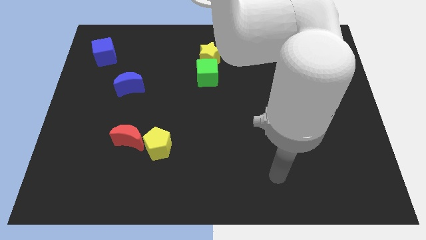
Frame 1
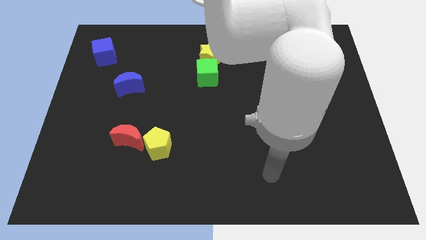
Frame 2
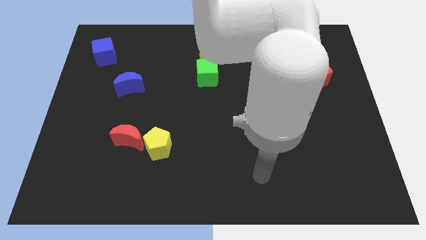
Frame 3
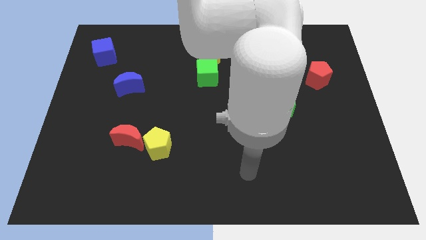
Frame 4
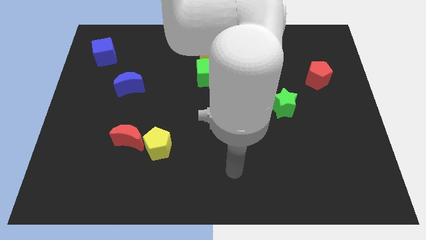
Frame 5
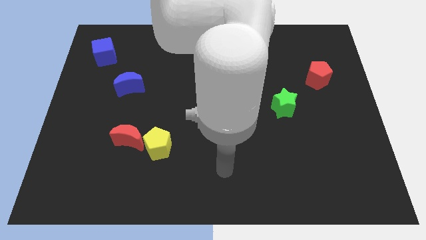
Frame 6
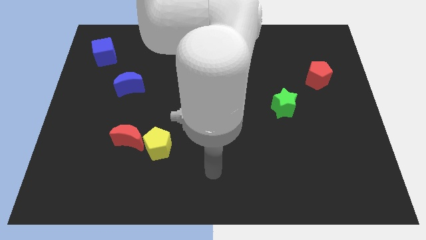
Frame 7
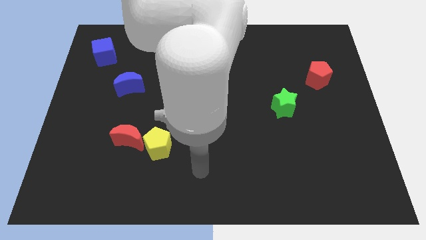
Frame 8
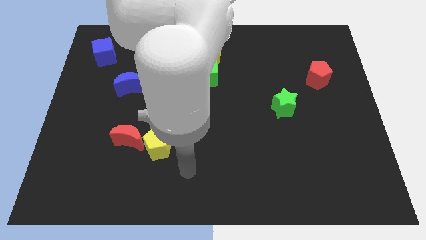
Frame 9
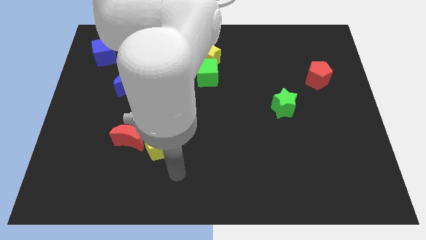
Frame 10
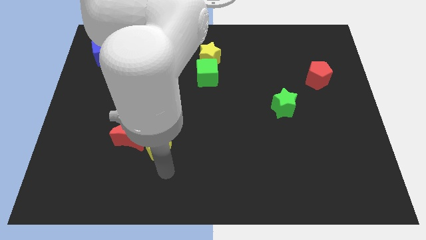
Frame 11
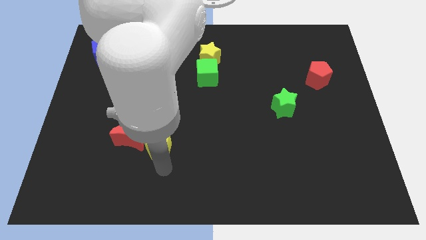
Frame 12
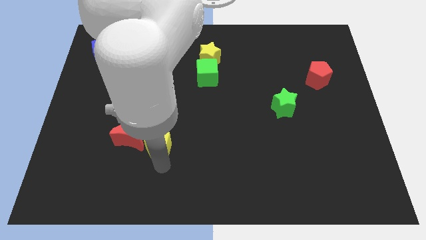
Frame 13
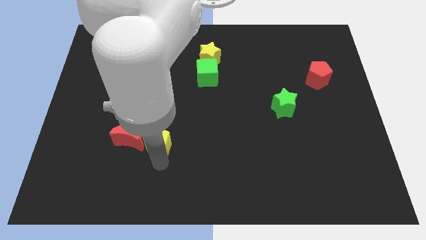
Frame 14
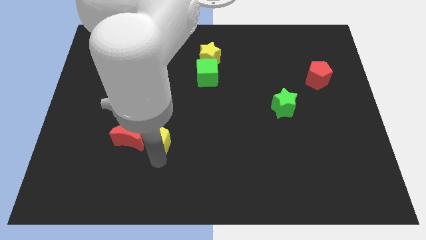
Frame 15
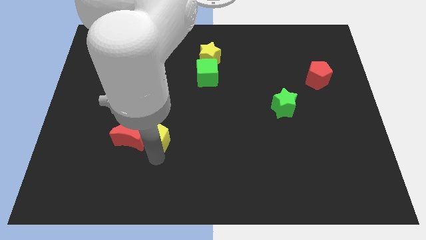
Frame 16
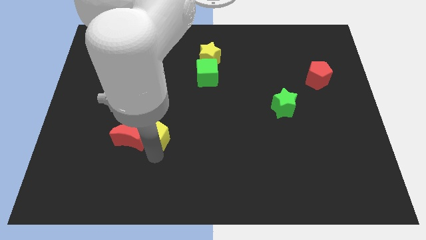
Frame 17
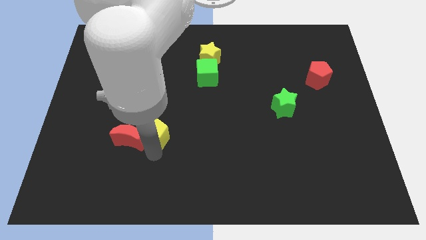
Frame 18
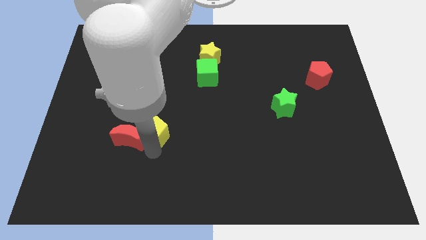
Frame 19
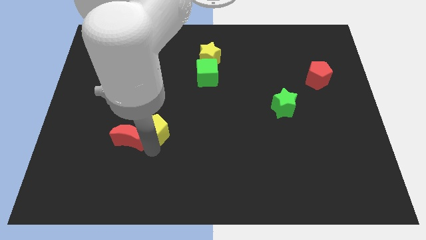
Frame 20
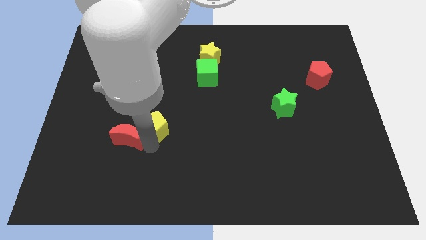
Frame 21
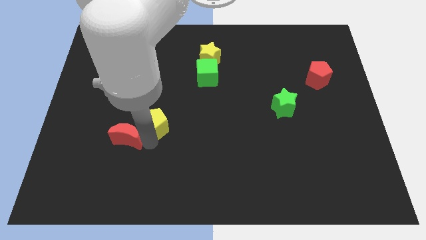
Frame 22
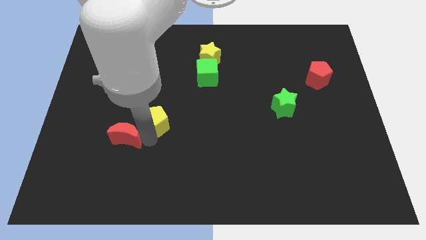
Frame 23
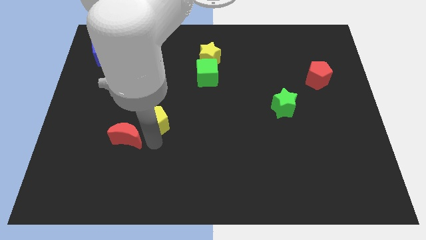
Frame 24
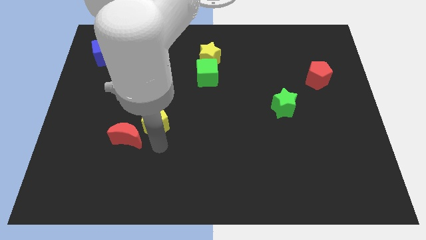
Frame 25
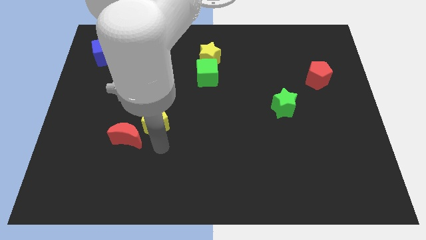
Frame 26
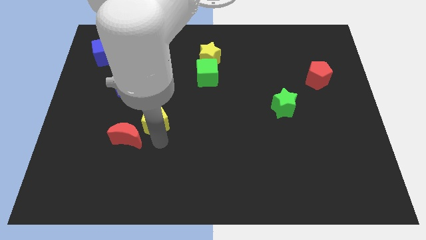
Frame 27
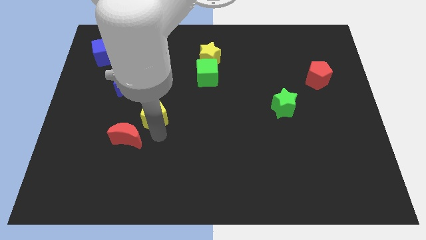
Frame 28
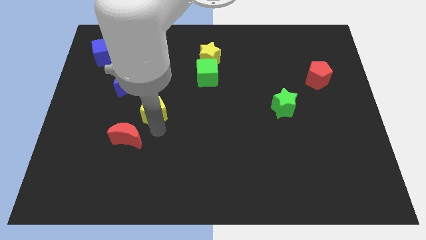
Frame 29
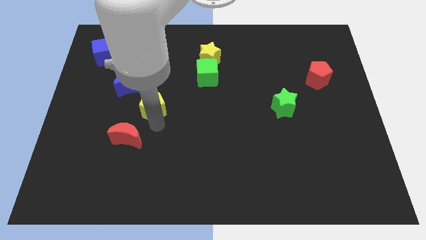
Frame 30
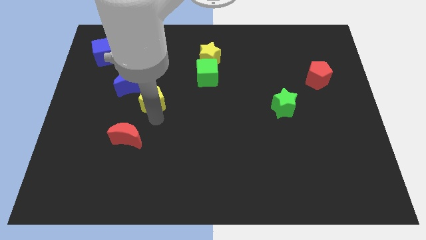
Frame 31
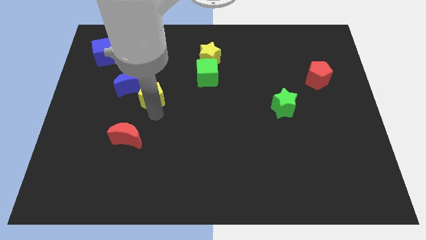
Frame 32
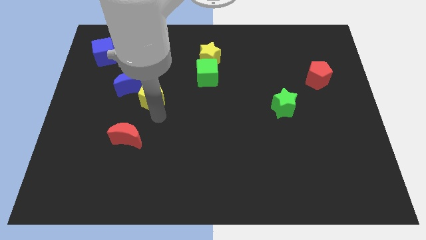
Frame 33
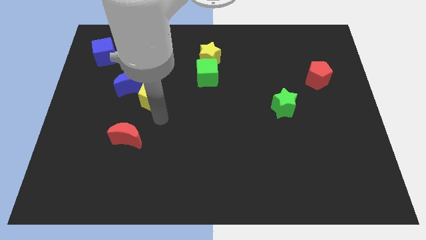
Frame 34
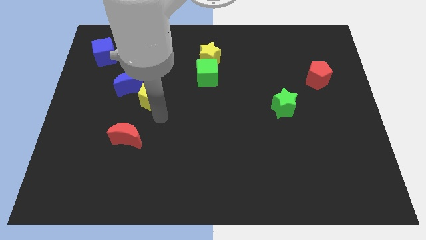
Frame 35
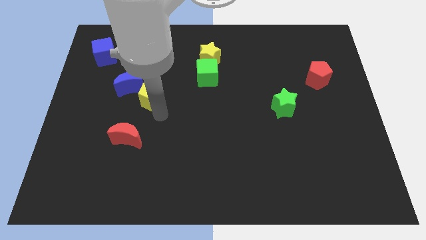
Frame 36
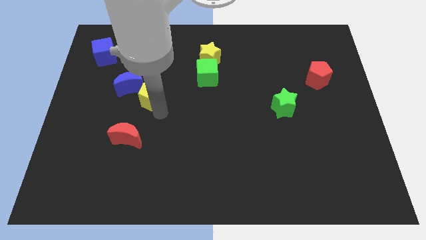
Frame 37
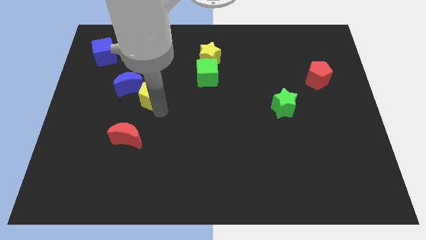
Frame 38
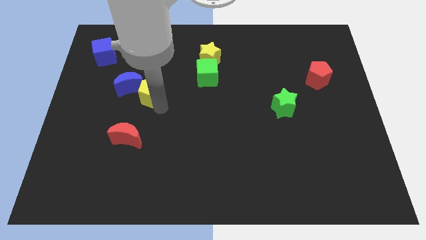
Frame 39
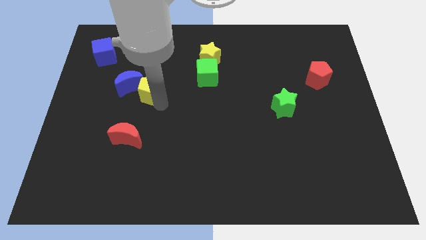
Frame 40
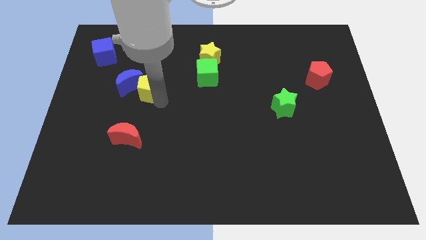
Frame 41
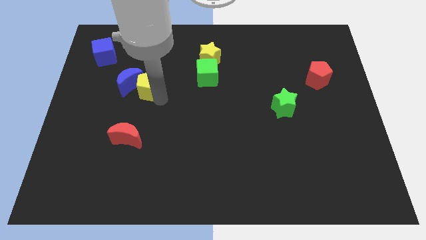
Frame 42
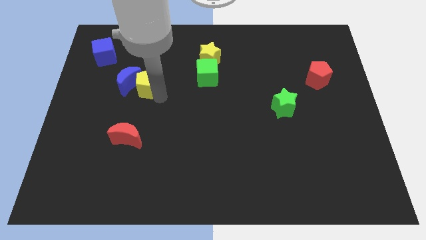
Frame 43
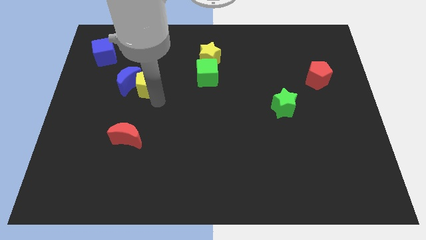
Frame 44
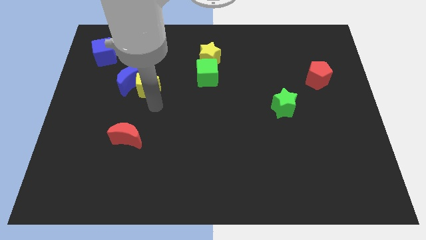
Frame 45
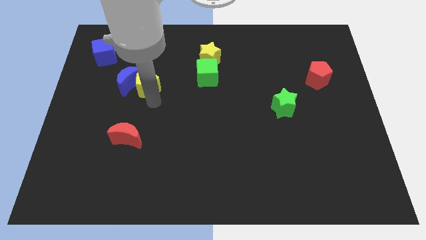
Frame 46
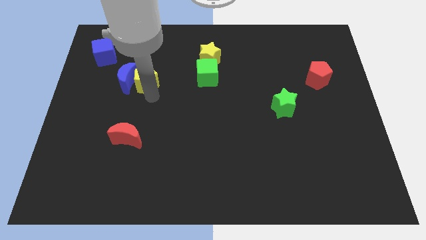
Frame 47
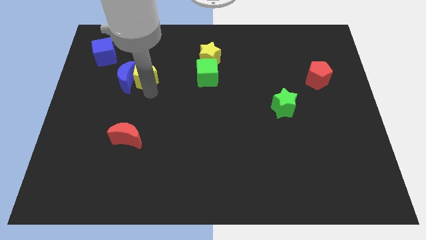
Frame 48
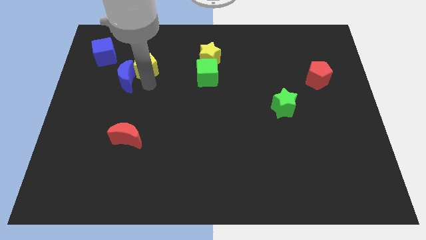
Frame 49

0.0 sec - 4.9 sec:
move the yellow pentagon to the top of the blue moon

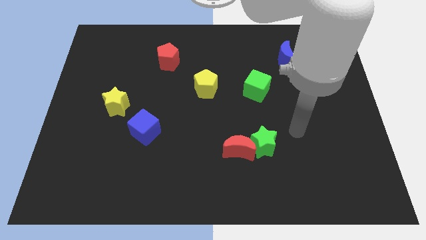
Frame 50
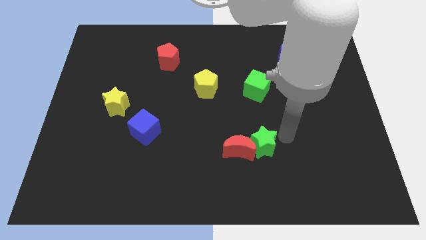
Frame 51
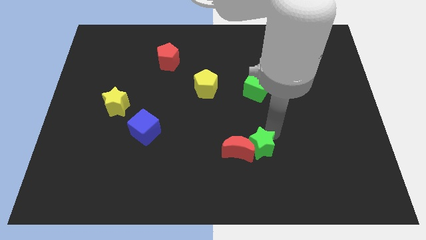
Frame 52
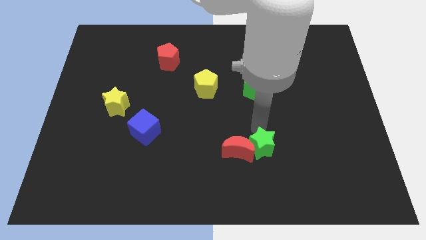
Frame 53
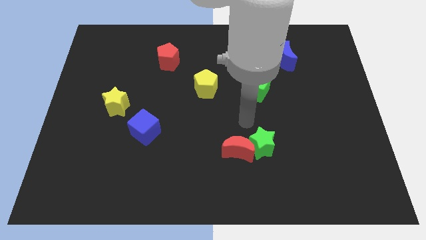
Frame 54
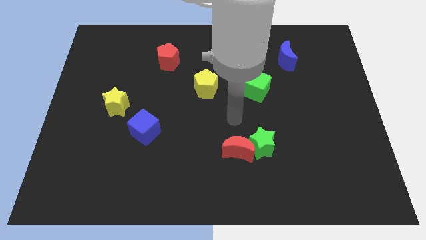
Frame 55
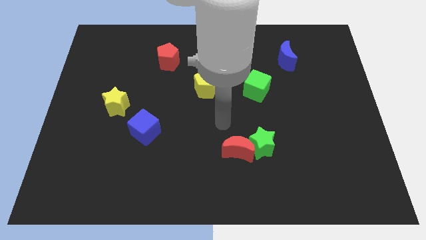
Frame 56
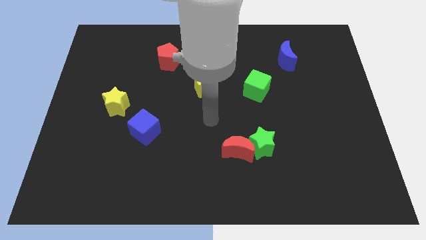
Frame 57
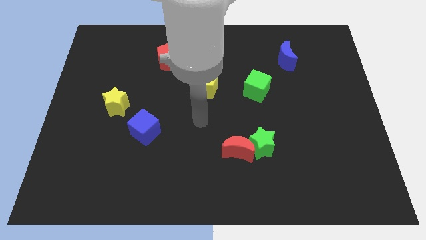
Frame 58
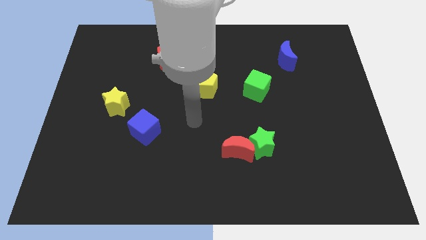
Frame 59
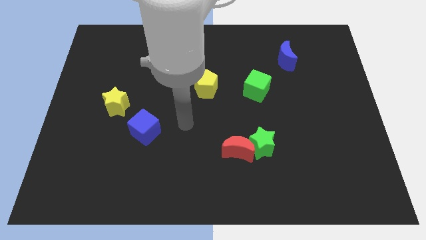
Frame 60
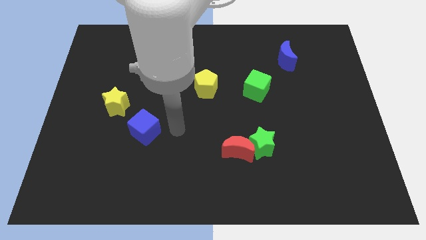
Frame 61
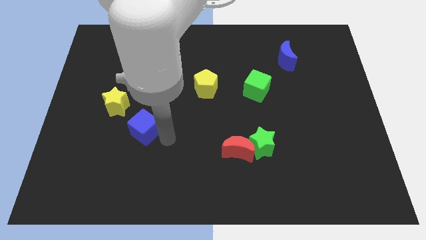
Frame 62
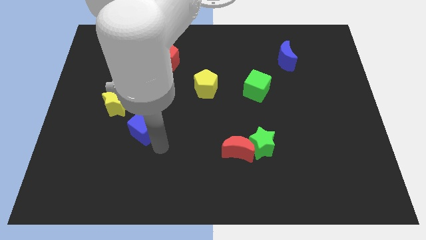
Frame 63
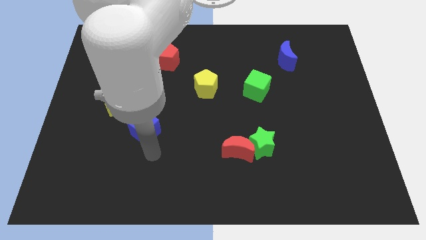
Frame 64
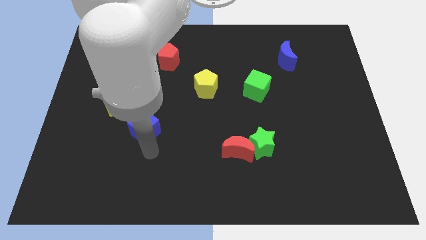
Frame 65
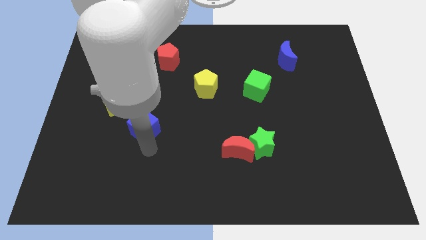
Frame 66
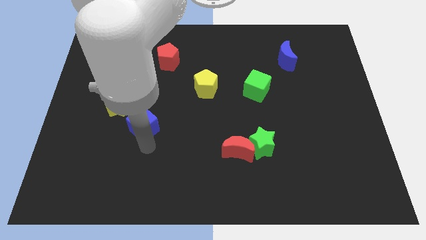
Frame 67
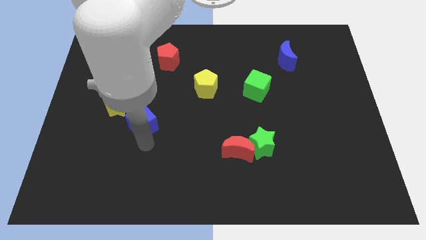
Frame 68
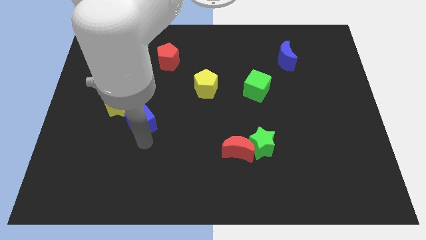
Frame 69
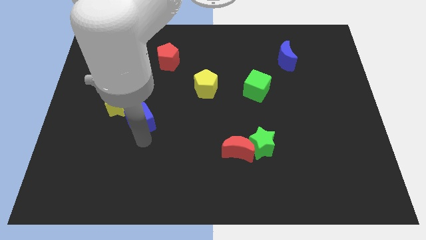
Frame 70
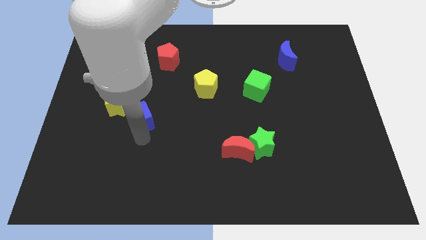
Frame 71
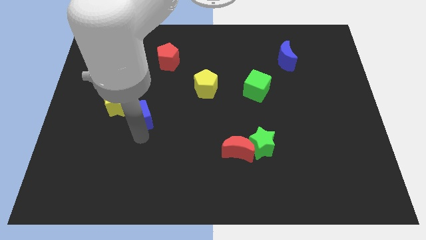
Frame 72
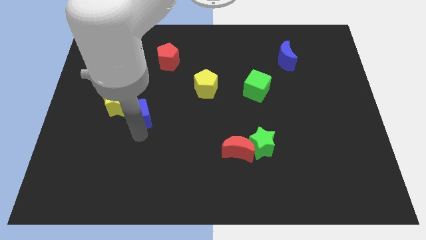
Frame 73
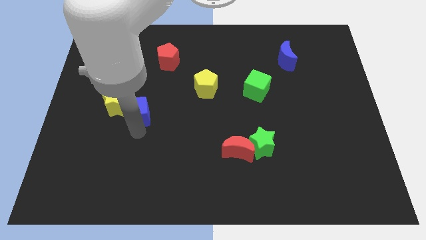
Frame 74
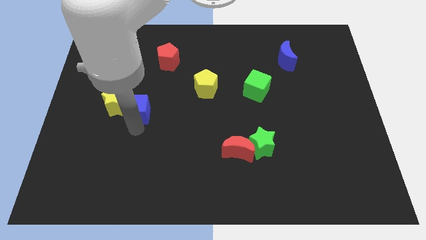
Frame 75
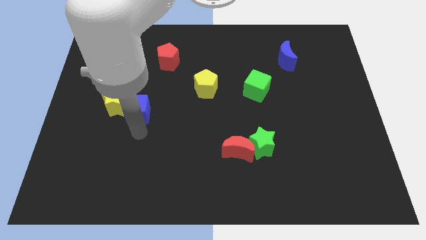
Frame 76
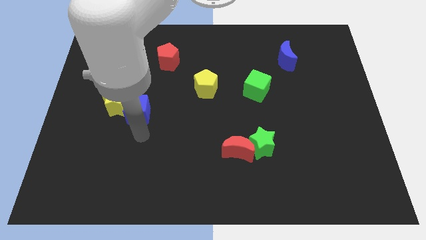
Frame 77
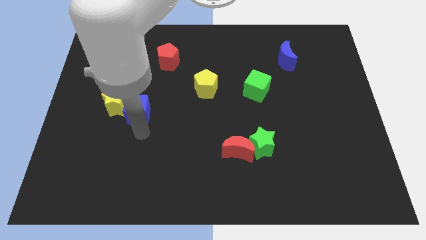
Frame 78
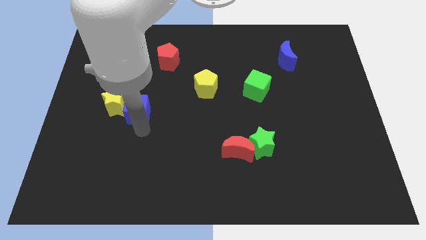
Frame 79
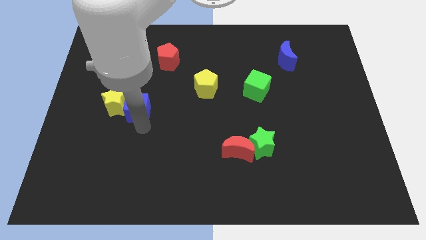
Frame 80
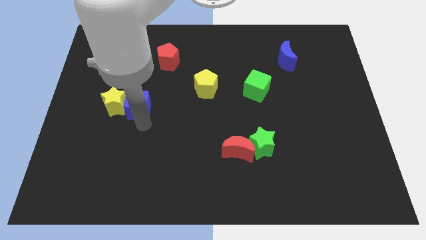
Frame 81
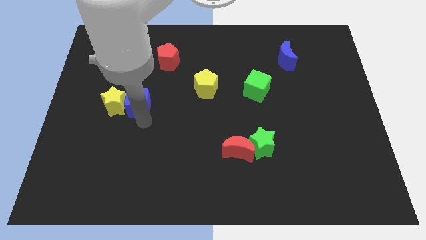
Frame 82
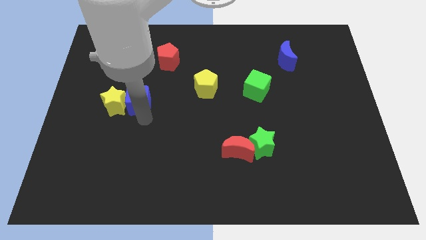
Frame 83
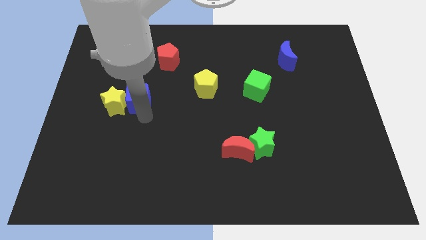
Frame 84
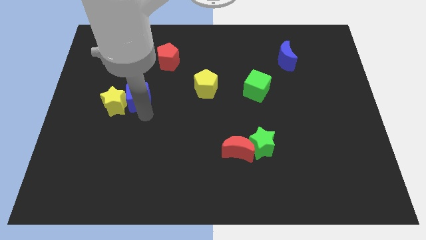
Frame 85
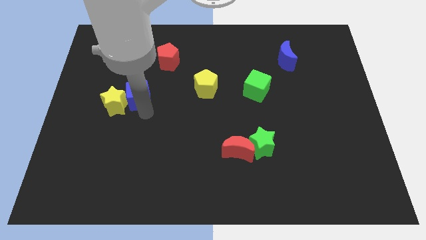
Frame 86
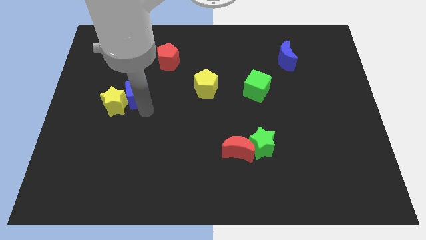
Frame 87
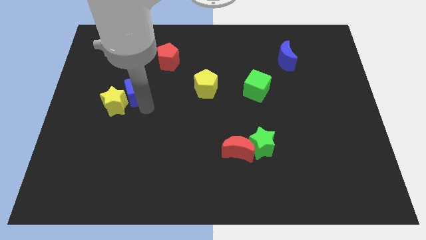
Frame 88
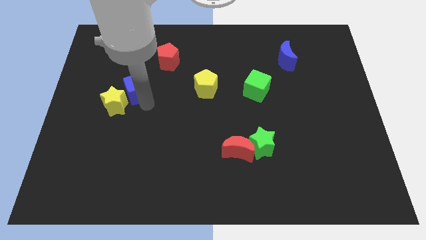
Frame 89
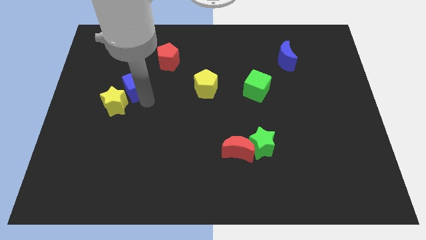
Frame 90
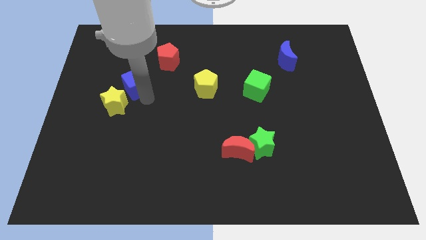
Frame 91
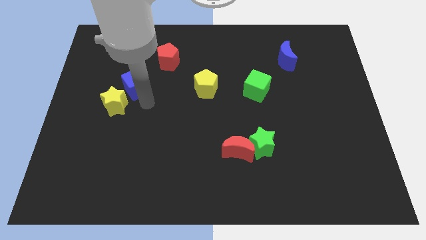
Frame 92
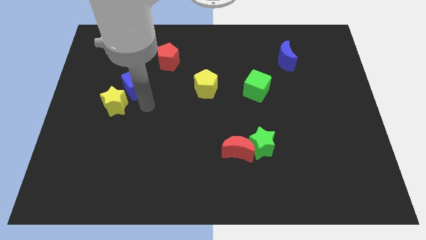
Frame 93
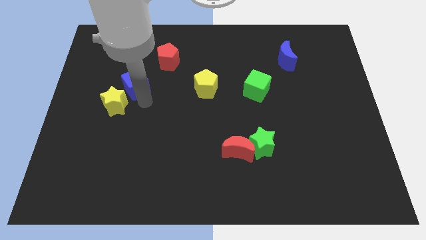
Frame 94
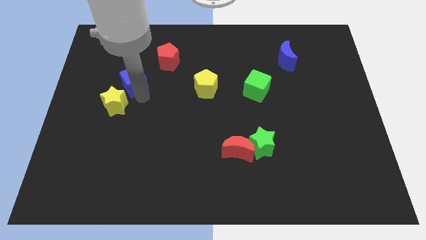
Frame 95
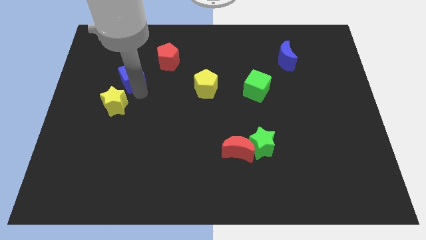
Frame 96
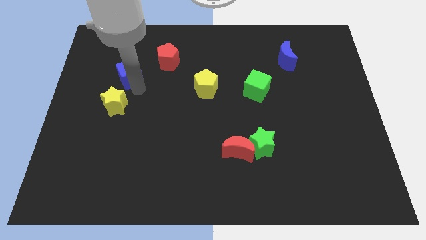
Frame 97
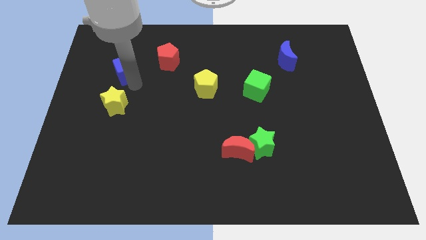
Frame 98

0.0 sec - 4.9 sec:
slide the blue cube to the left of the red pentagon
